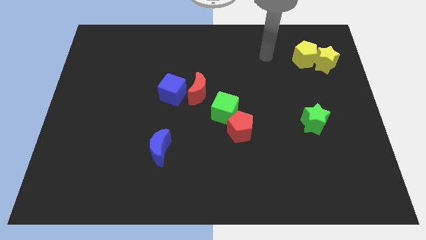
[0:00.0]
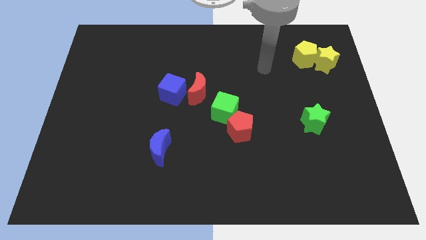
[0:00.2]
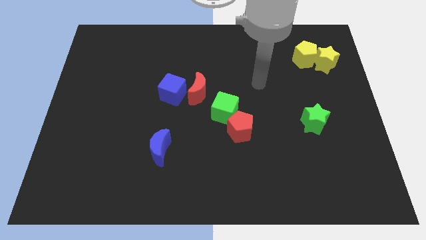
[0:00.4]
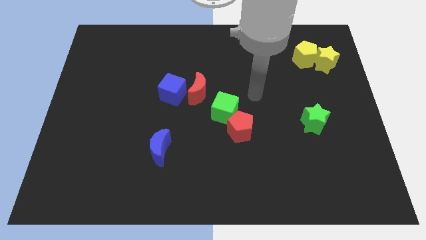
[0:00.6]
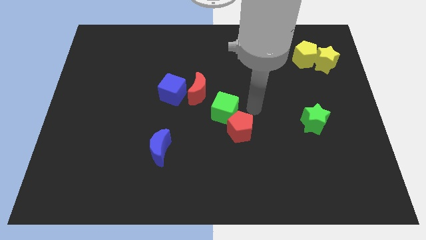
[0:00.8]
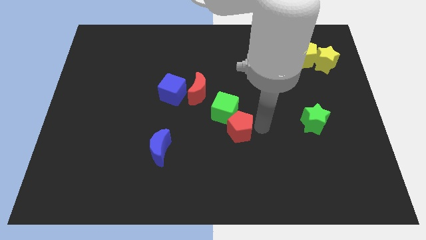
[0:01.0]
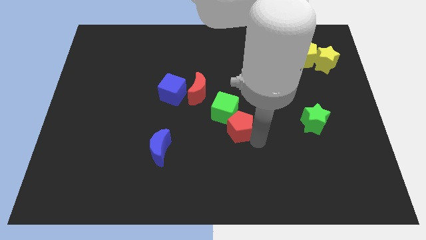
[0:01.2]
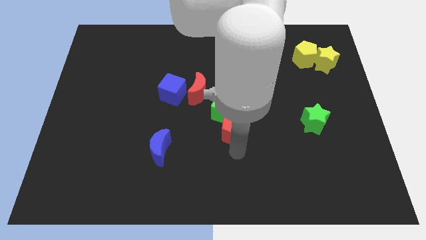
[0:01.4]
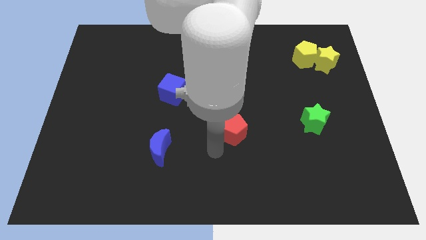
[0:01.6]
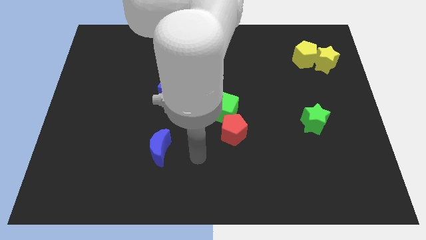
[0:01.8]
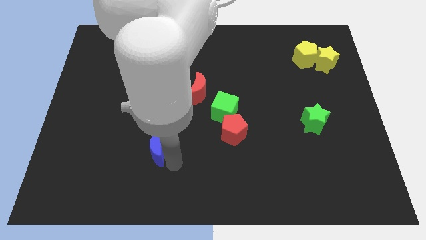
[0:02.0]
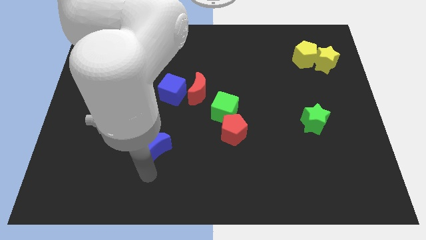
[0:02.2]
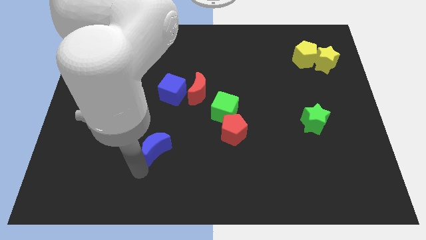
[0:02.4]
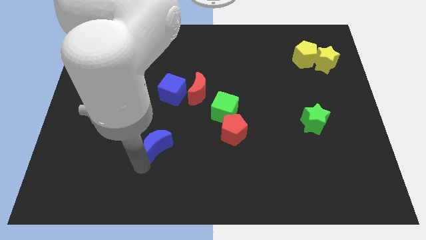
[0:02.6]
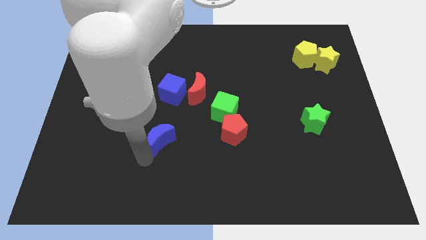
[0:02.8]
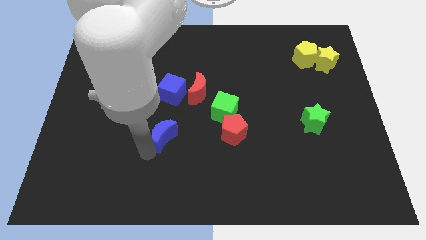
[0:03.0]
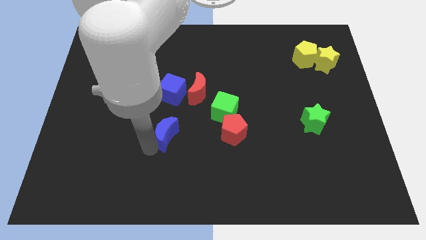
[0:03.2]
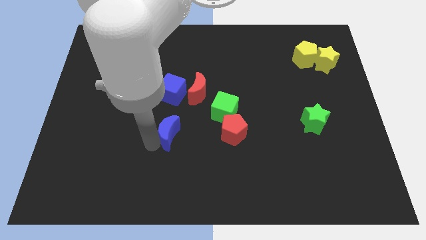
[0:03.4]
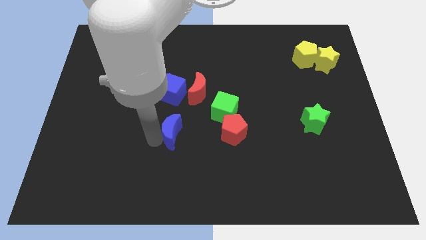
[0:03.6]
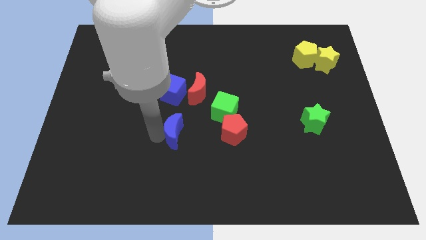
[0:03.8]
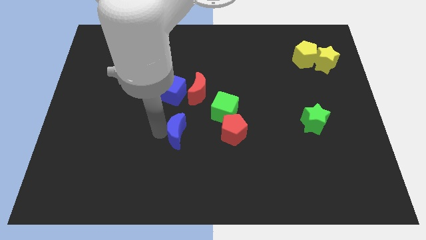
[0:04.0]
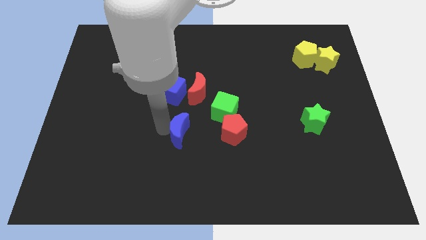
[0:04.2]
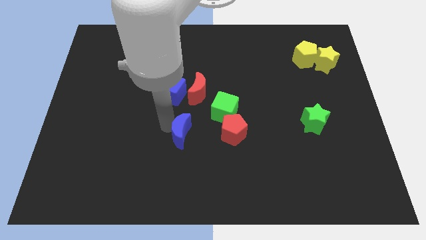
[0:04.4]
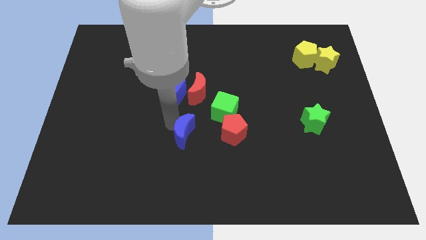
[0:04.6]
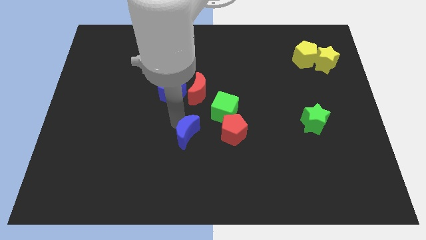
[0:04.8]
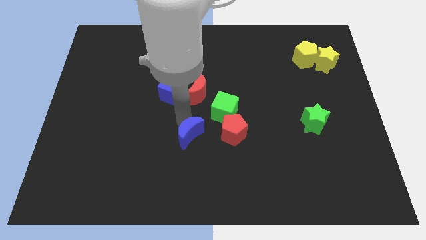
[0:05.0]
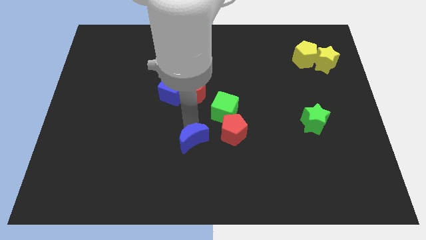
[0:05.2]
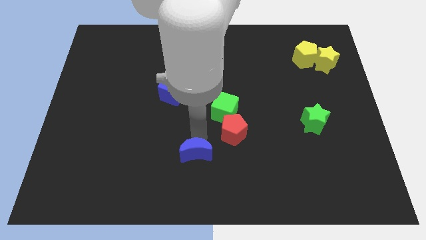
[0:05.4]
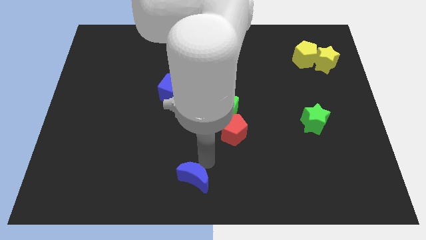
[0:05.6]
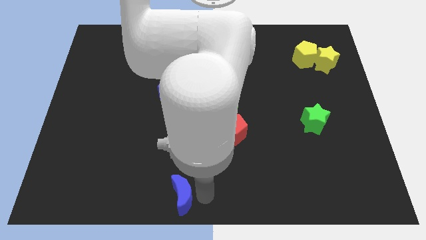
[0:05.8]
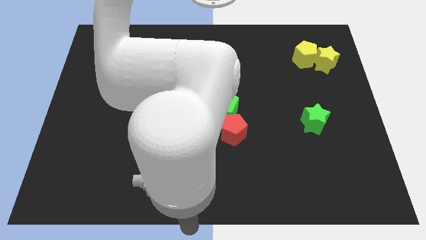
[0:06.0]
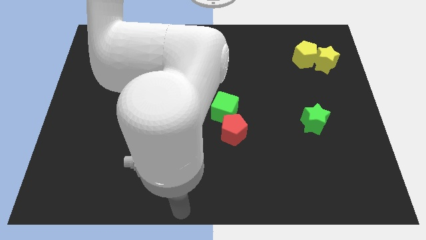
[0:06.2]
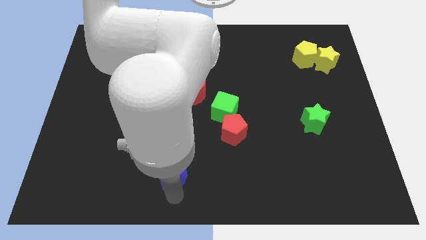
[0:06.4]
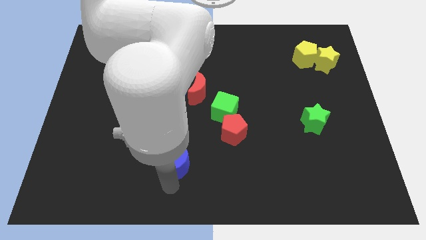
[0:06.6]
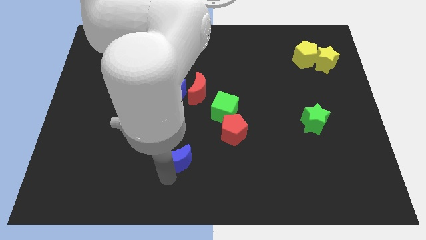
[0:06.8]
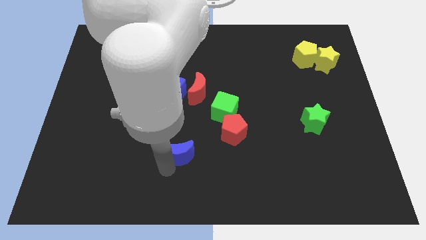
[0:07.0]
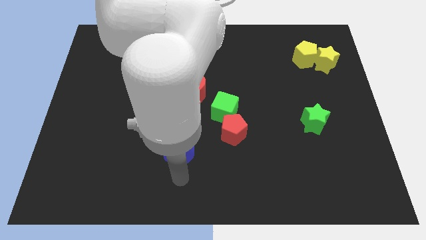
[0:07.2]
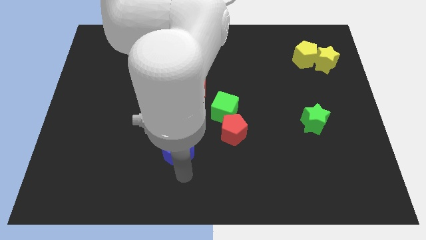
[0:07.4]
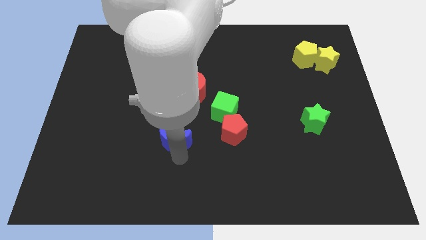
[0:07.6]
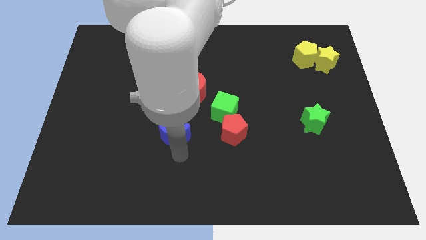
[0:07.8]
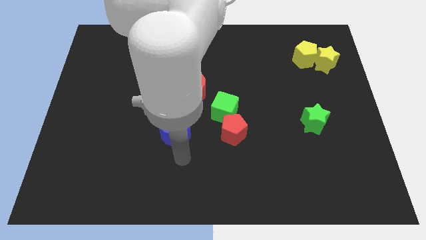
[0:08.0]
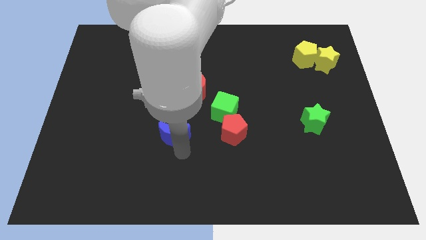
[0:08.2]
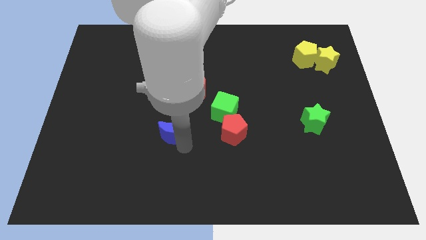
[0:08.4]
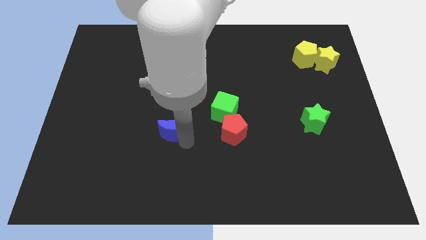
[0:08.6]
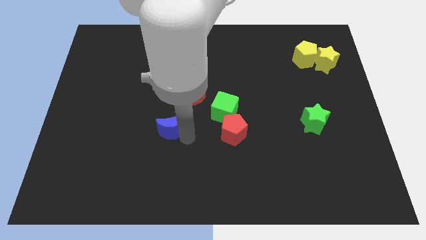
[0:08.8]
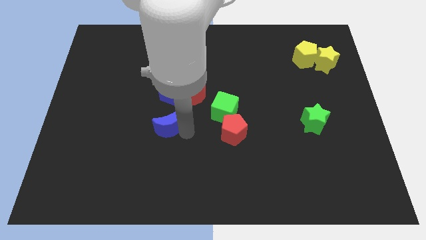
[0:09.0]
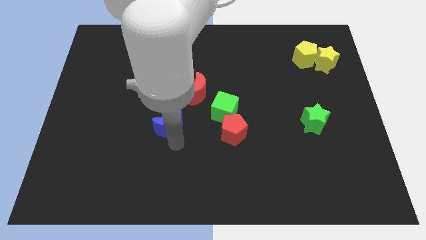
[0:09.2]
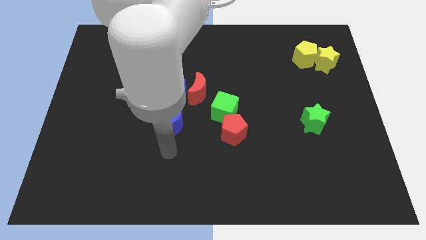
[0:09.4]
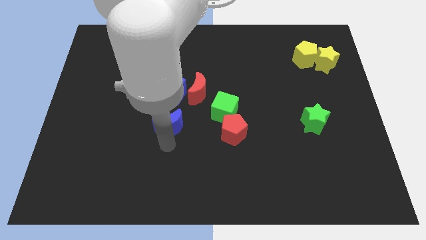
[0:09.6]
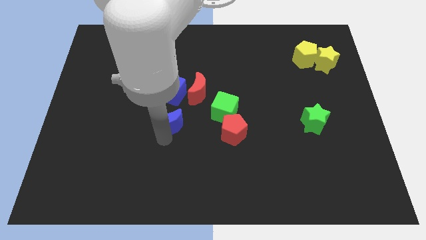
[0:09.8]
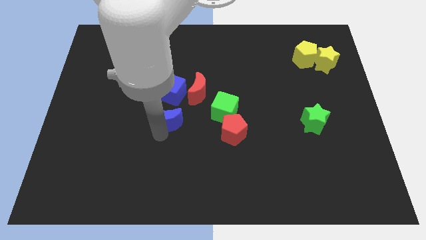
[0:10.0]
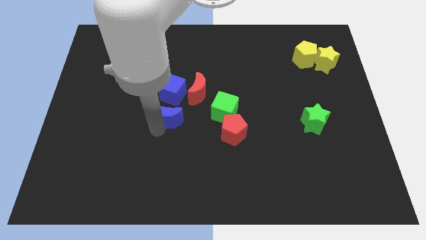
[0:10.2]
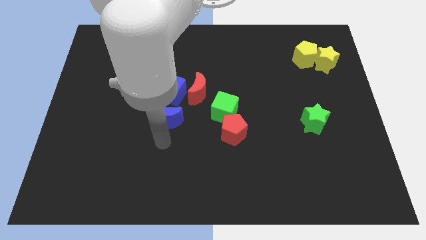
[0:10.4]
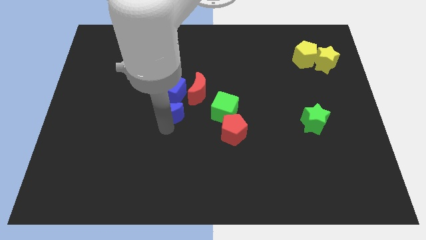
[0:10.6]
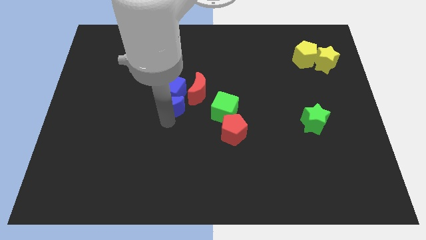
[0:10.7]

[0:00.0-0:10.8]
move the blue moon towards the blue cube

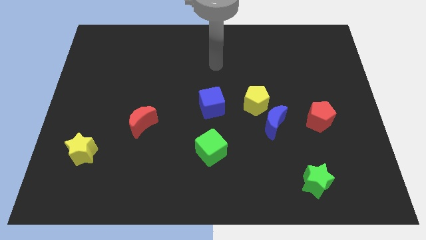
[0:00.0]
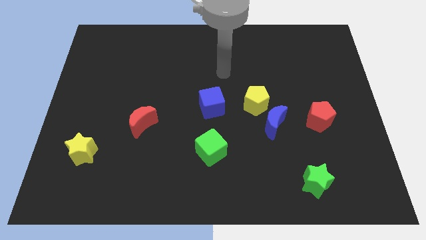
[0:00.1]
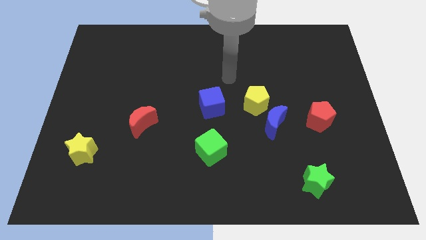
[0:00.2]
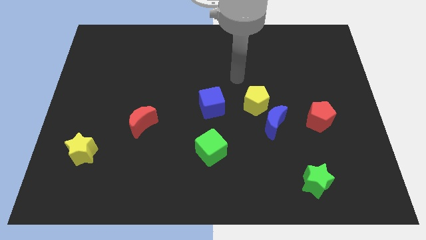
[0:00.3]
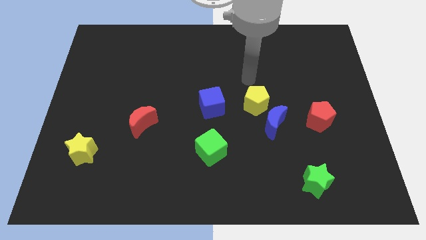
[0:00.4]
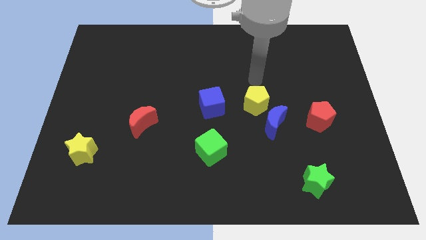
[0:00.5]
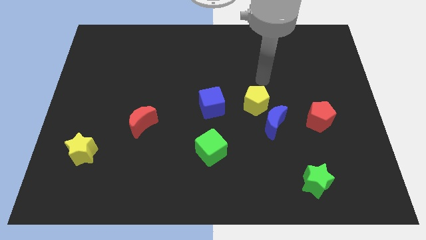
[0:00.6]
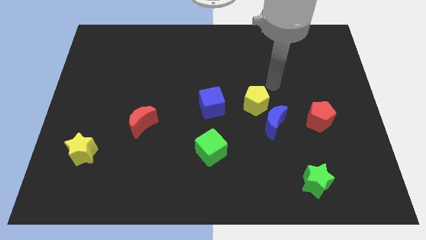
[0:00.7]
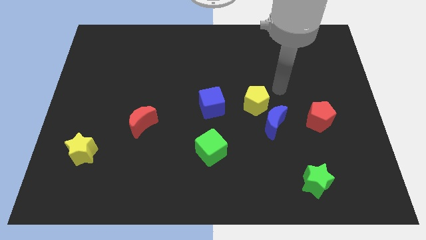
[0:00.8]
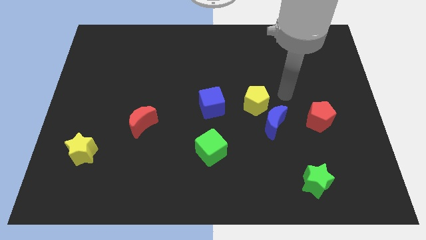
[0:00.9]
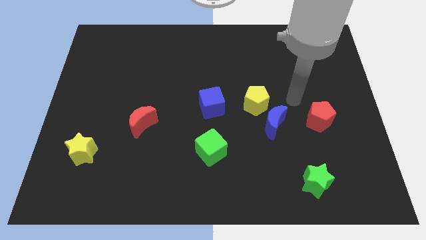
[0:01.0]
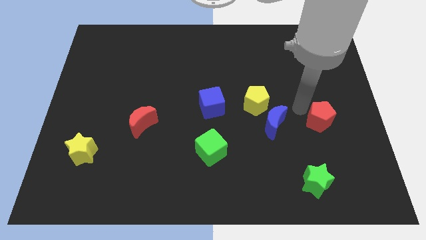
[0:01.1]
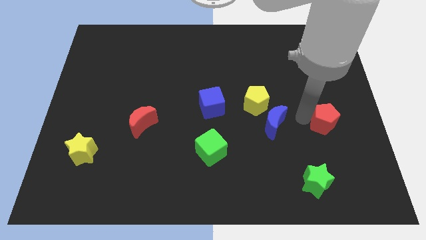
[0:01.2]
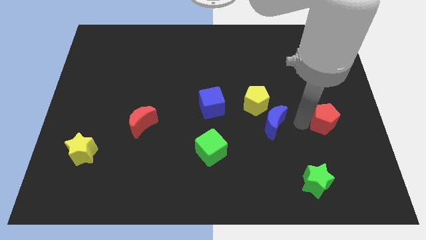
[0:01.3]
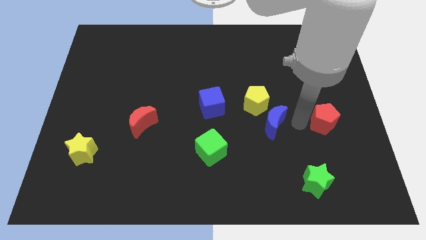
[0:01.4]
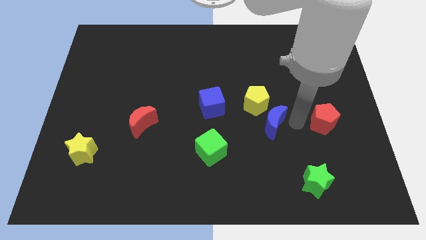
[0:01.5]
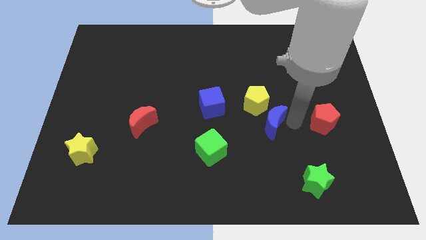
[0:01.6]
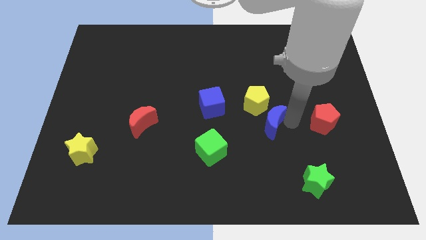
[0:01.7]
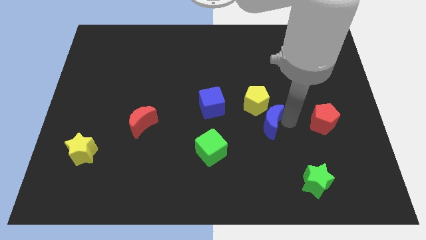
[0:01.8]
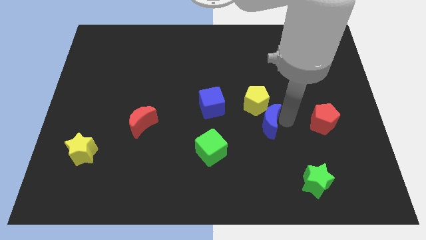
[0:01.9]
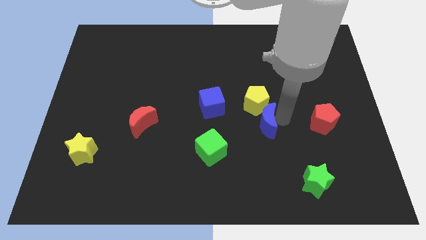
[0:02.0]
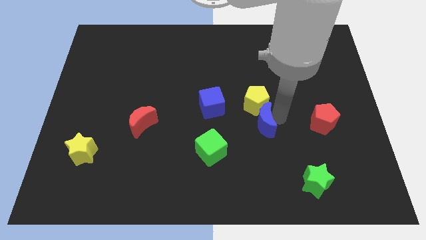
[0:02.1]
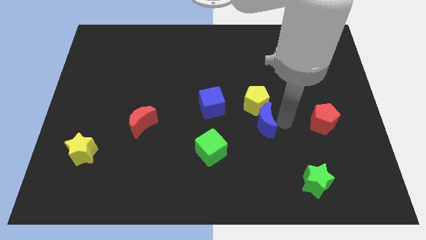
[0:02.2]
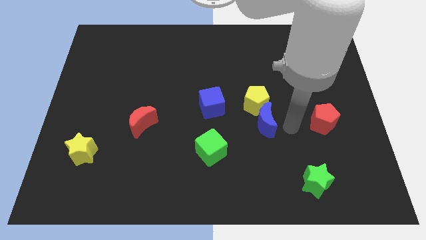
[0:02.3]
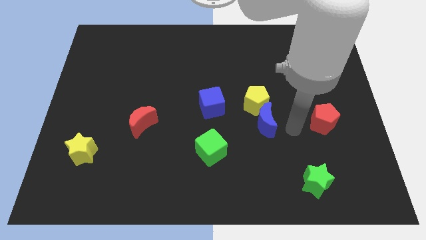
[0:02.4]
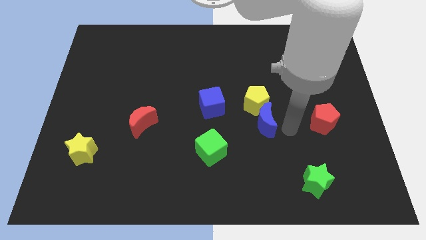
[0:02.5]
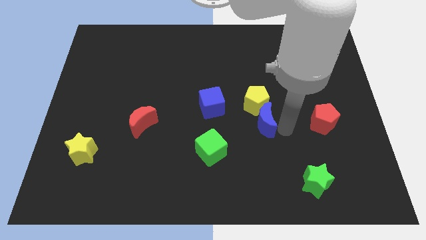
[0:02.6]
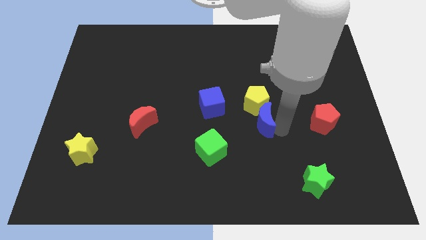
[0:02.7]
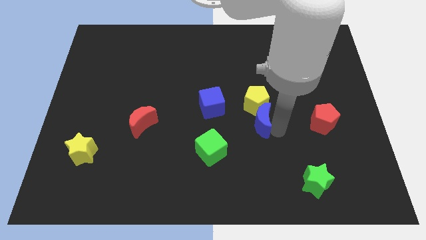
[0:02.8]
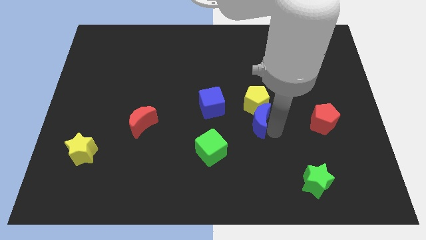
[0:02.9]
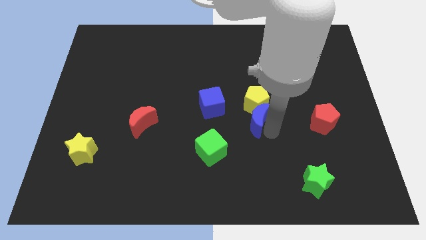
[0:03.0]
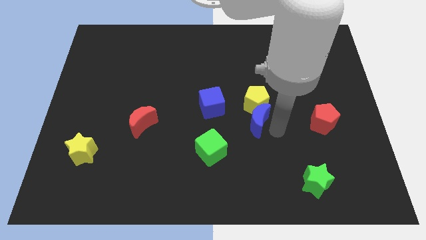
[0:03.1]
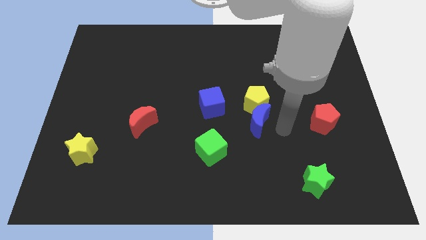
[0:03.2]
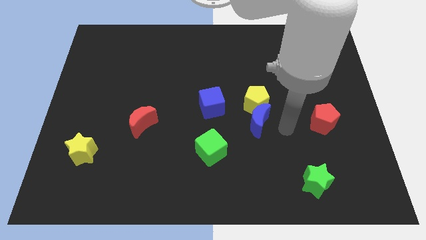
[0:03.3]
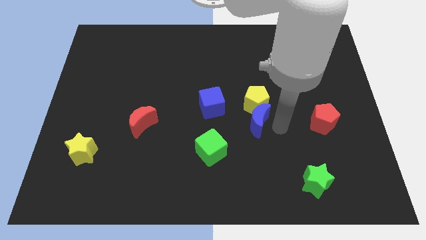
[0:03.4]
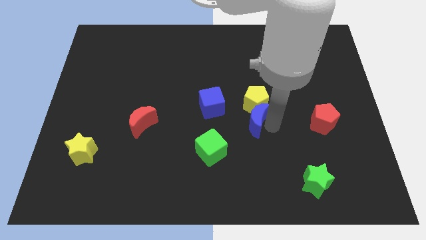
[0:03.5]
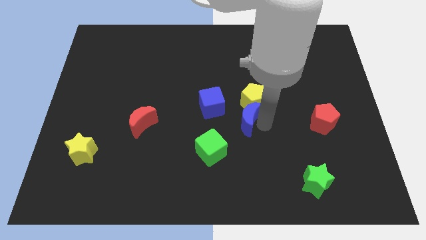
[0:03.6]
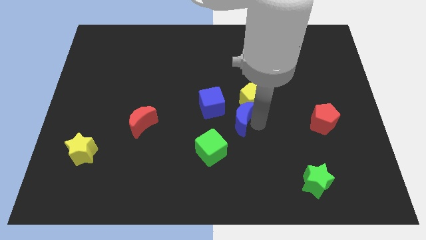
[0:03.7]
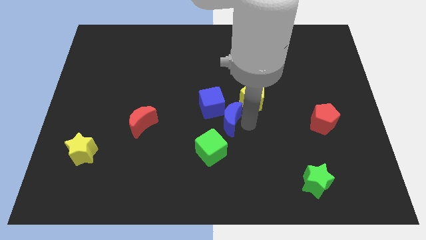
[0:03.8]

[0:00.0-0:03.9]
slide the blue moon next to the blue cube
